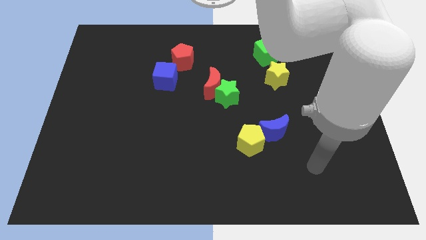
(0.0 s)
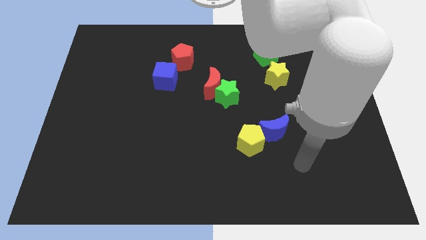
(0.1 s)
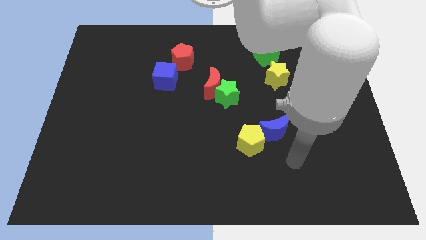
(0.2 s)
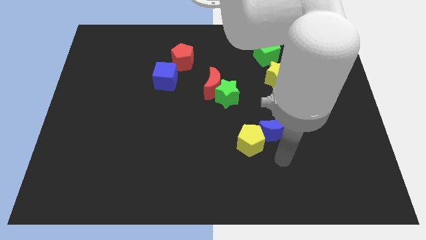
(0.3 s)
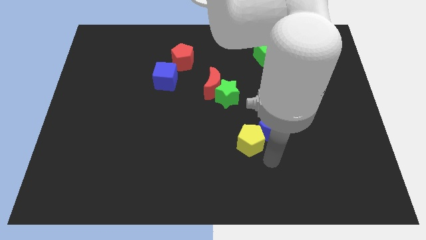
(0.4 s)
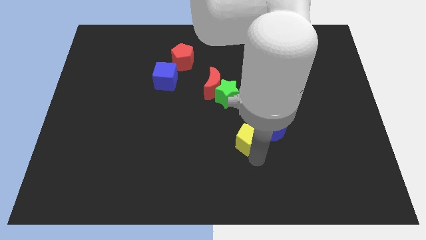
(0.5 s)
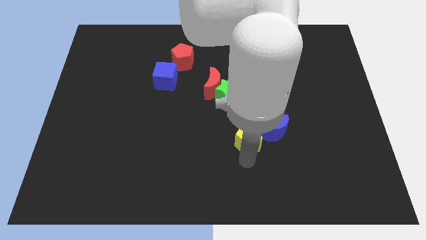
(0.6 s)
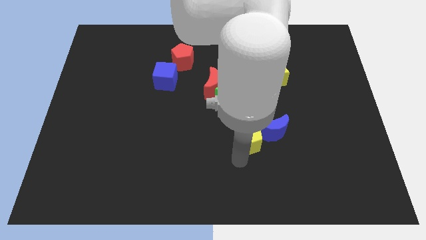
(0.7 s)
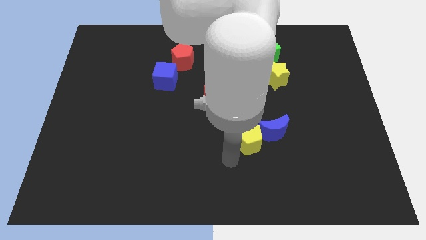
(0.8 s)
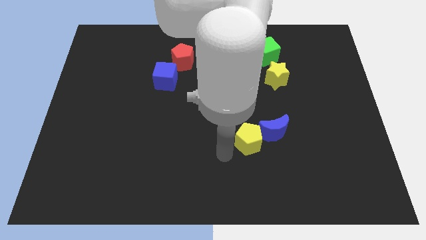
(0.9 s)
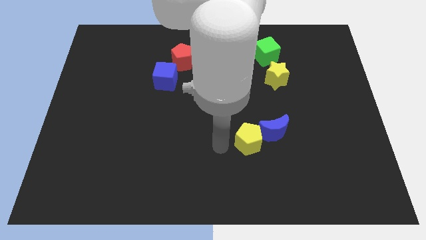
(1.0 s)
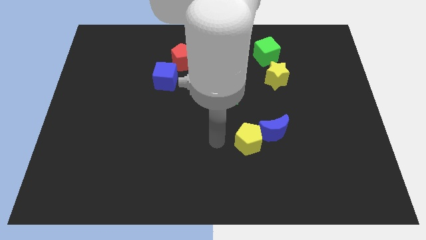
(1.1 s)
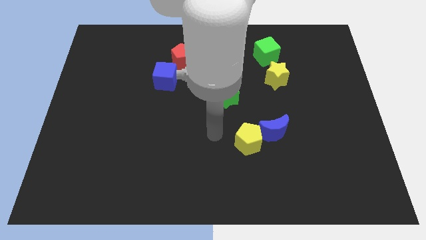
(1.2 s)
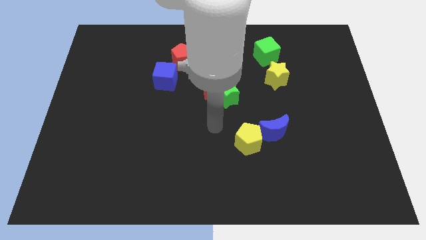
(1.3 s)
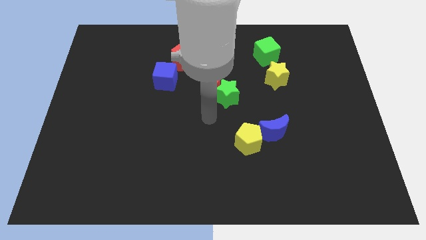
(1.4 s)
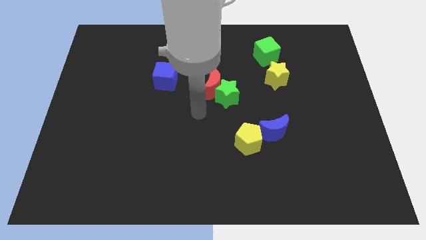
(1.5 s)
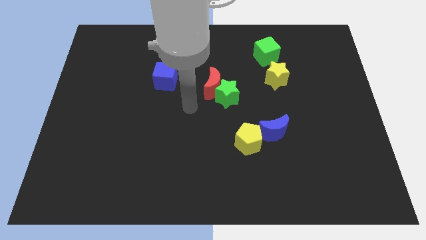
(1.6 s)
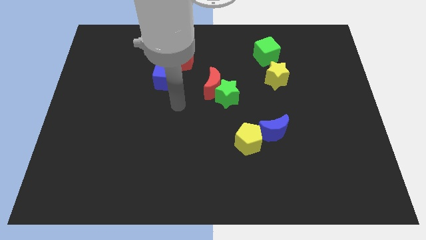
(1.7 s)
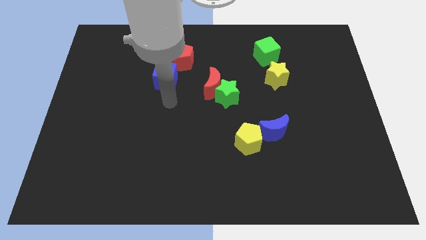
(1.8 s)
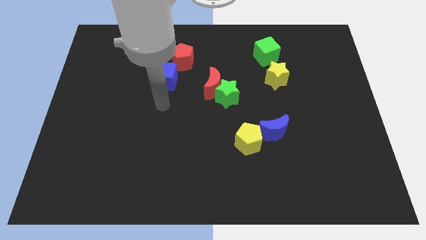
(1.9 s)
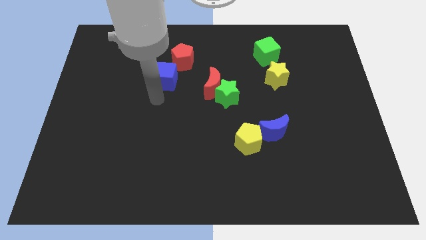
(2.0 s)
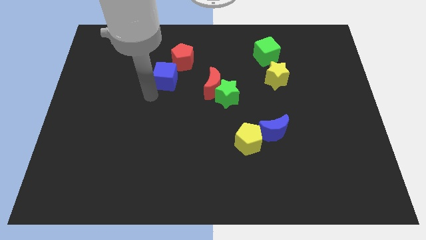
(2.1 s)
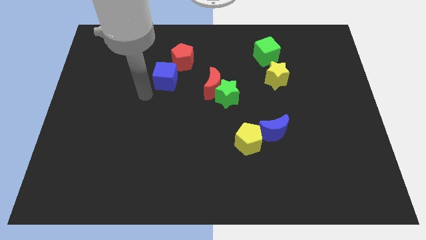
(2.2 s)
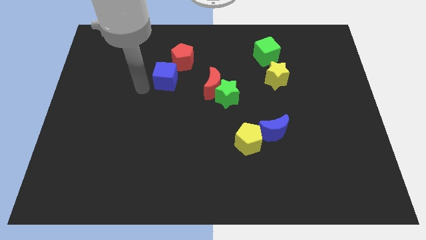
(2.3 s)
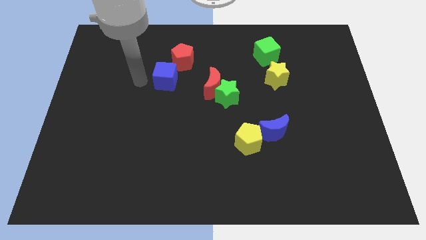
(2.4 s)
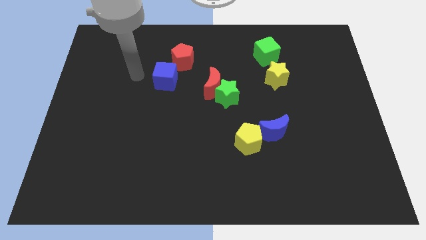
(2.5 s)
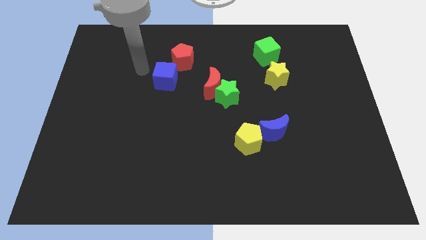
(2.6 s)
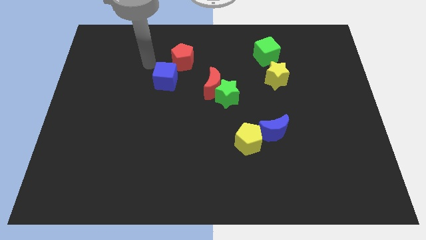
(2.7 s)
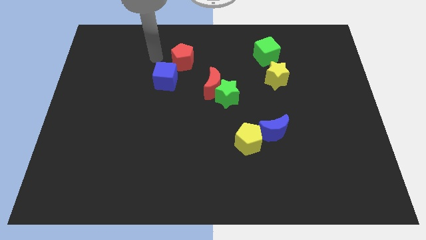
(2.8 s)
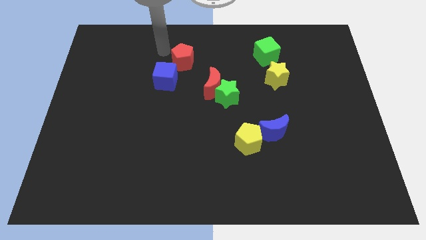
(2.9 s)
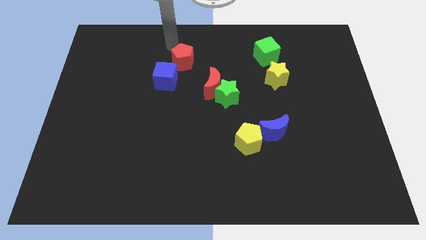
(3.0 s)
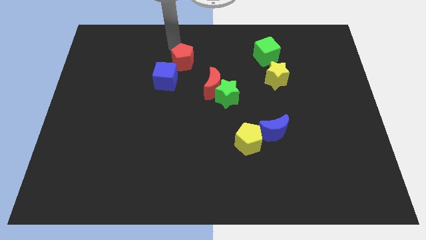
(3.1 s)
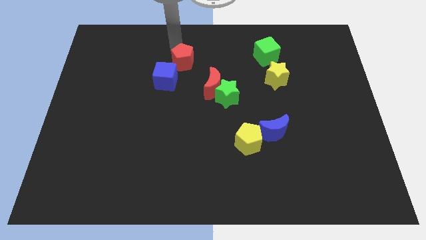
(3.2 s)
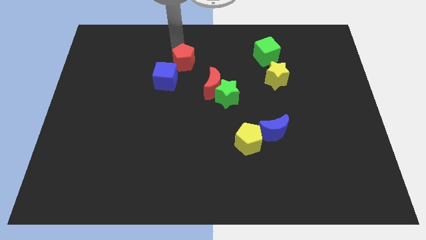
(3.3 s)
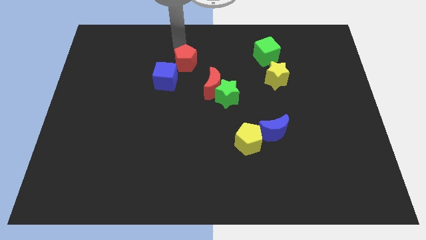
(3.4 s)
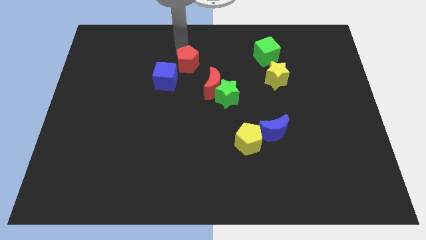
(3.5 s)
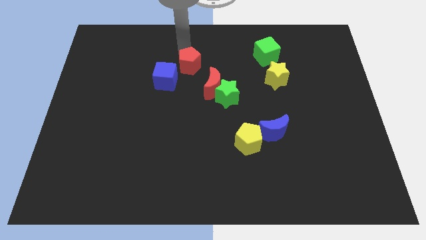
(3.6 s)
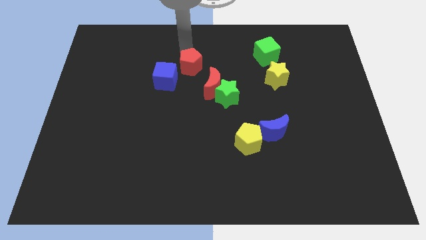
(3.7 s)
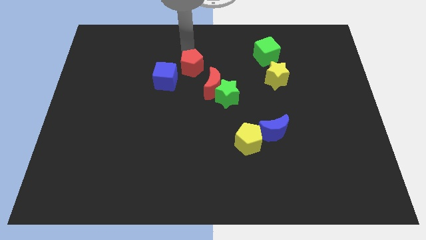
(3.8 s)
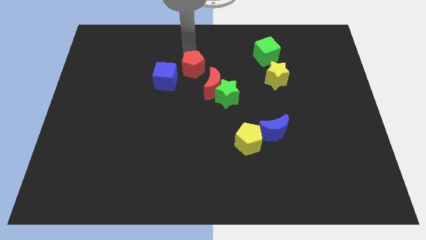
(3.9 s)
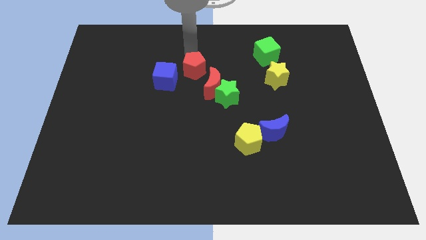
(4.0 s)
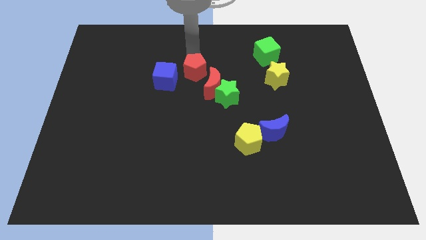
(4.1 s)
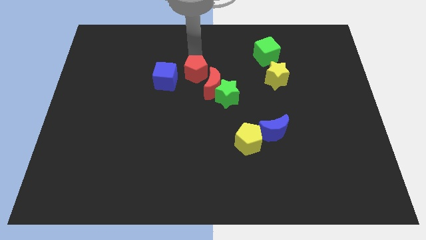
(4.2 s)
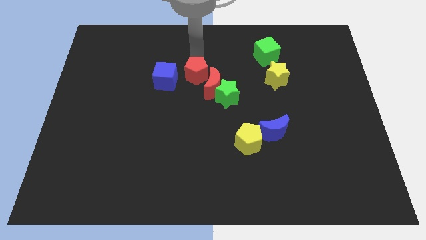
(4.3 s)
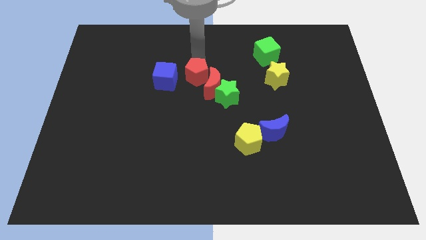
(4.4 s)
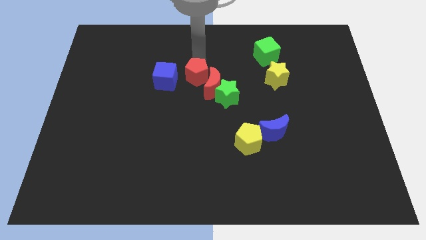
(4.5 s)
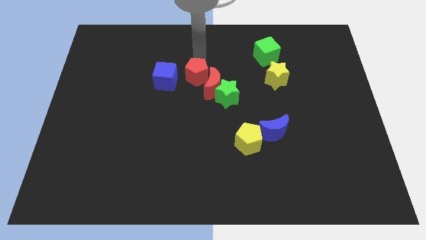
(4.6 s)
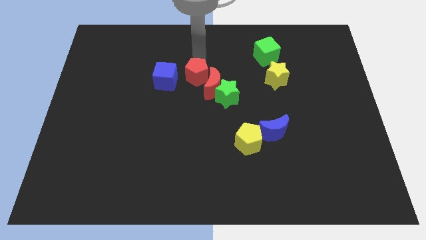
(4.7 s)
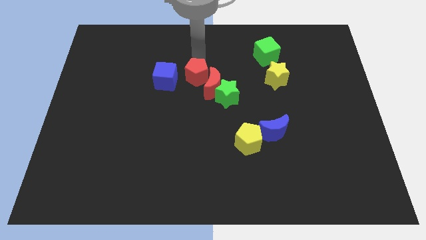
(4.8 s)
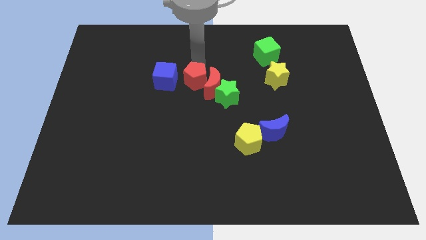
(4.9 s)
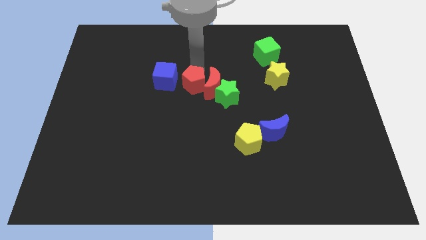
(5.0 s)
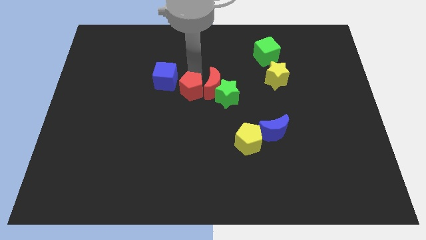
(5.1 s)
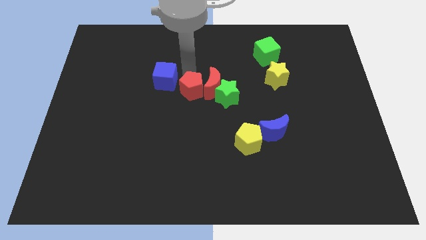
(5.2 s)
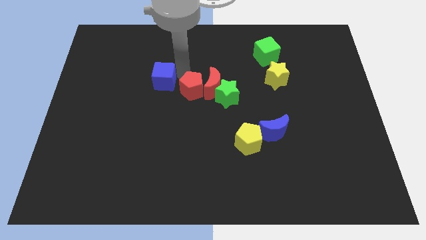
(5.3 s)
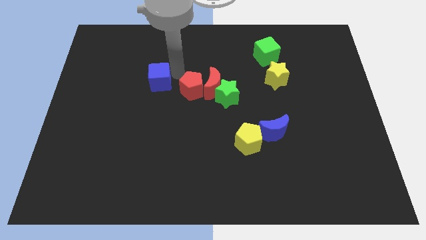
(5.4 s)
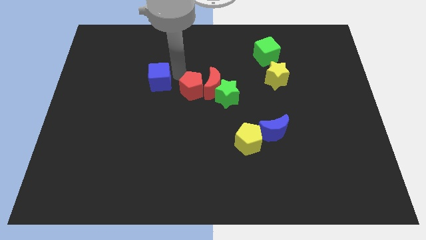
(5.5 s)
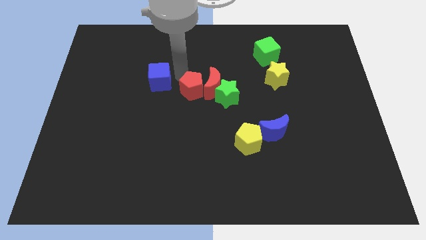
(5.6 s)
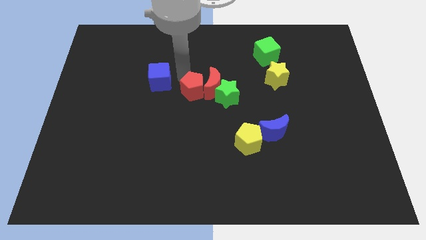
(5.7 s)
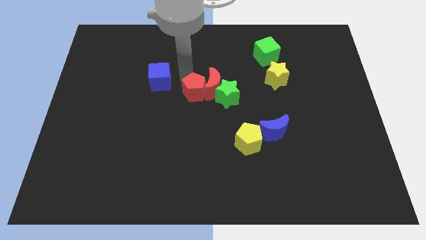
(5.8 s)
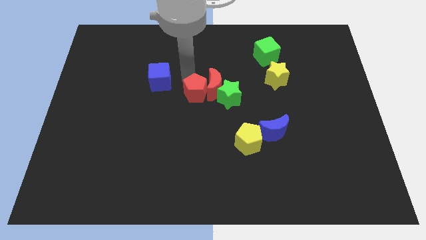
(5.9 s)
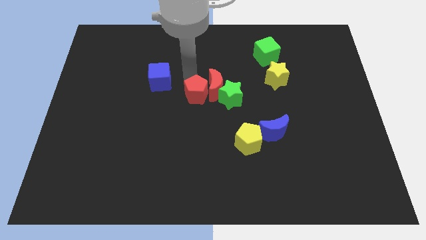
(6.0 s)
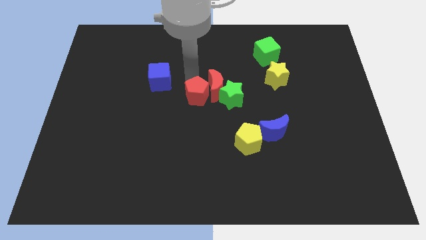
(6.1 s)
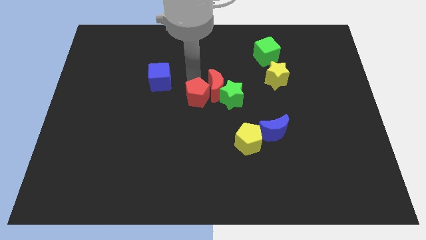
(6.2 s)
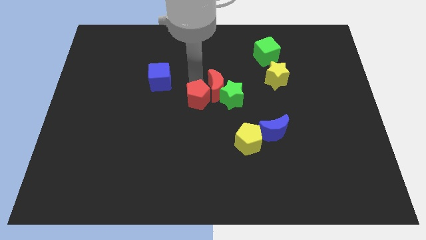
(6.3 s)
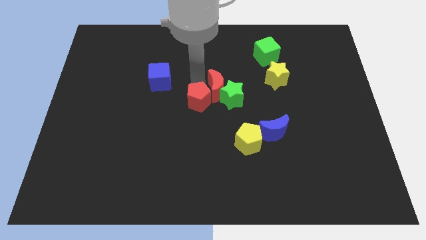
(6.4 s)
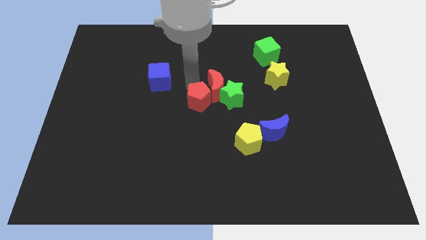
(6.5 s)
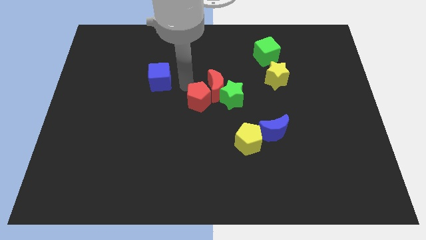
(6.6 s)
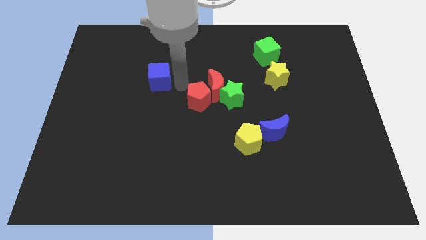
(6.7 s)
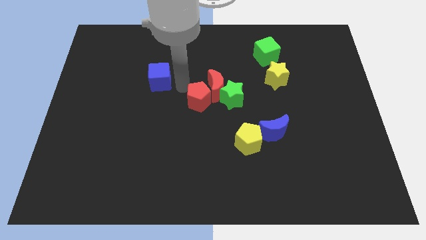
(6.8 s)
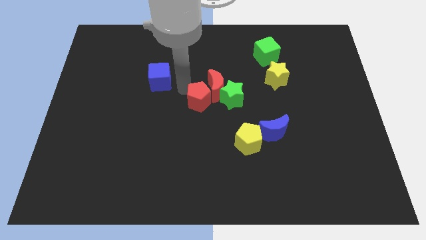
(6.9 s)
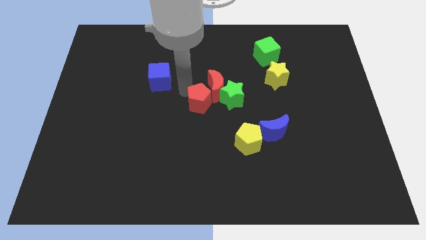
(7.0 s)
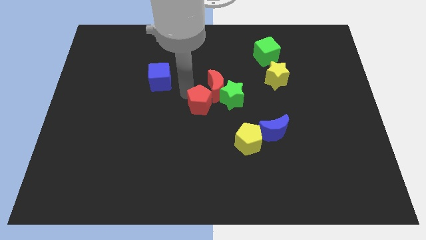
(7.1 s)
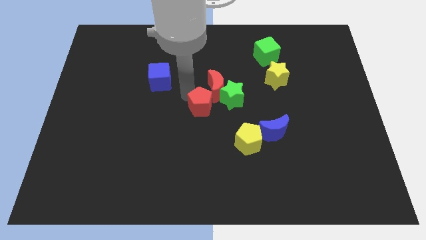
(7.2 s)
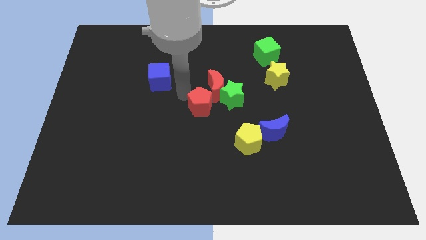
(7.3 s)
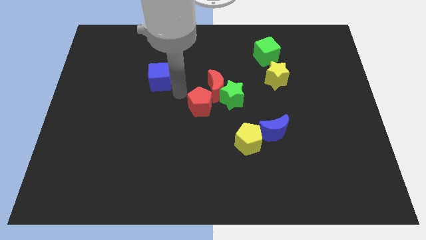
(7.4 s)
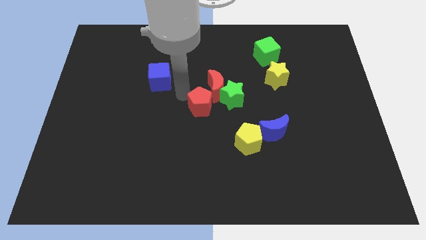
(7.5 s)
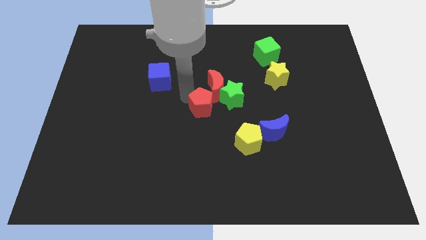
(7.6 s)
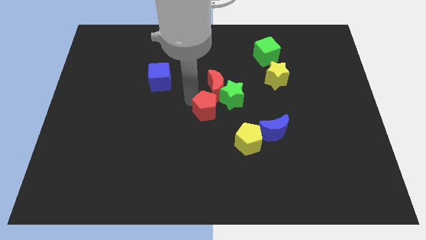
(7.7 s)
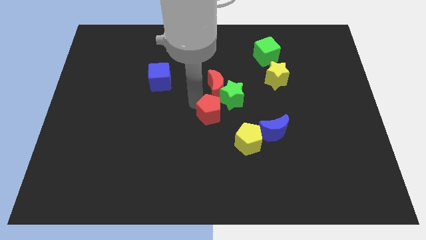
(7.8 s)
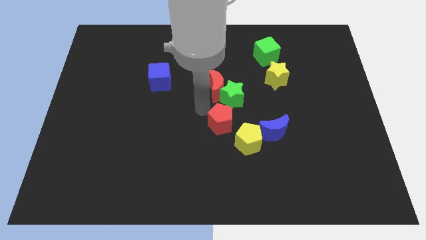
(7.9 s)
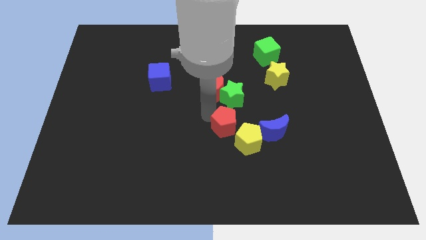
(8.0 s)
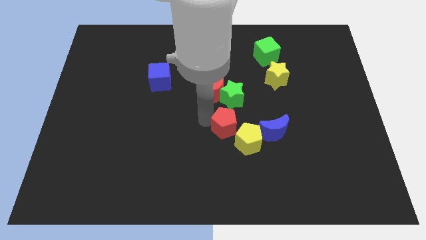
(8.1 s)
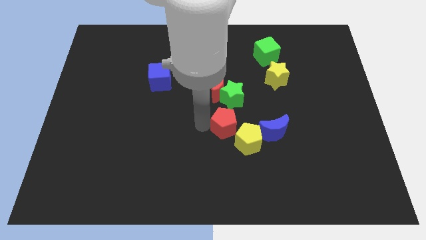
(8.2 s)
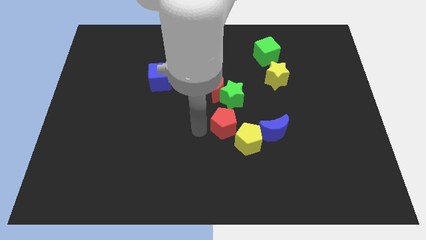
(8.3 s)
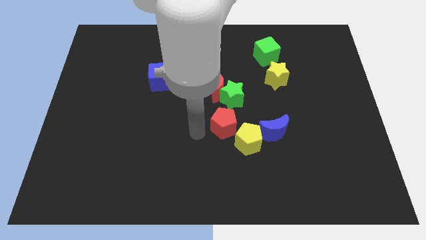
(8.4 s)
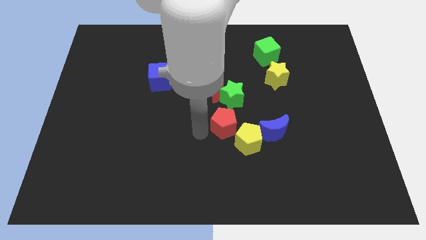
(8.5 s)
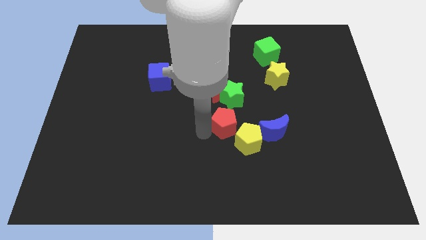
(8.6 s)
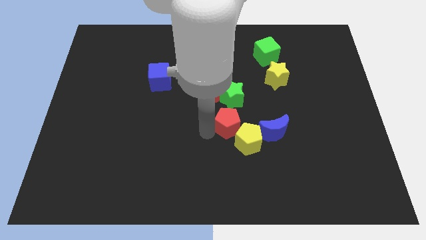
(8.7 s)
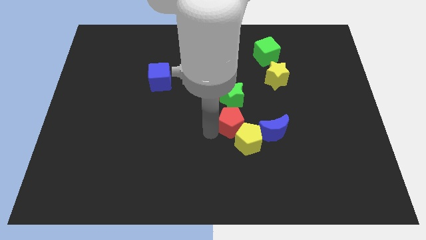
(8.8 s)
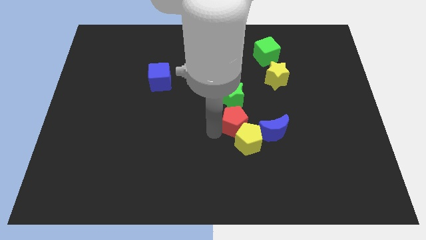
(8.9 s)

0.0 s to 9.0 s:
put the red pentagon to the bottom right side of the green star
